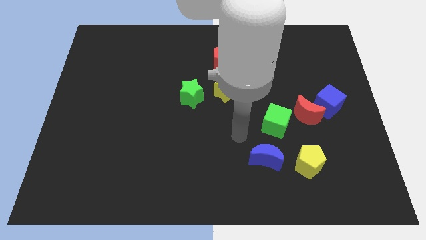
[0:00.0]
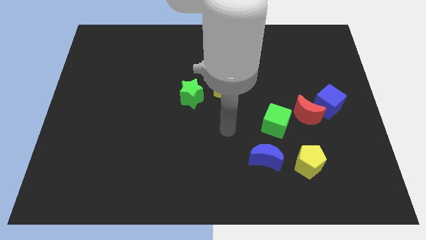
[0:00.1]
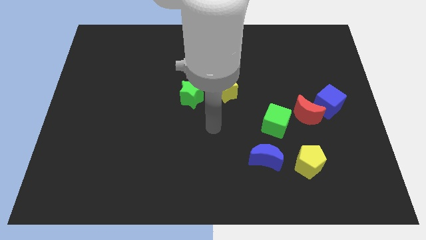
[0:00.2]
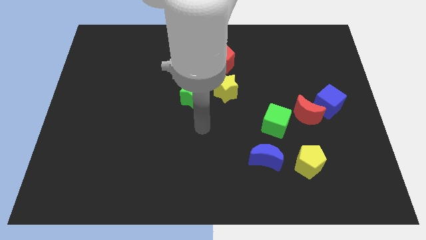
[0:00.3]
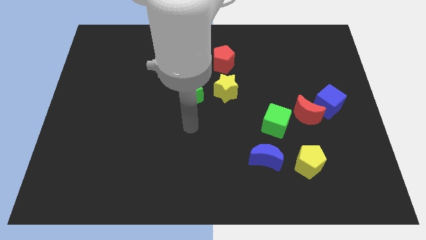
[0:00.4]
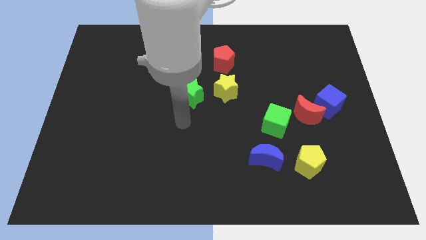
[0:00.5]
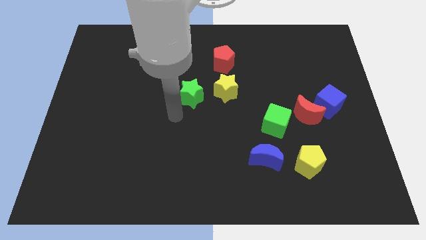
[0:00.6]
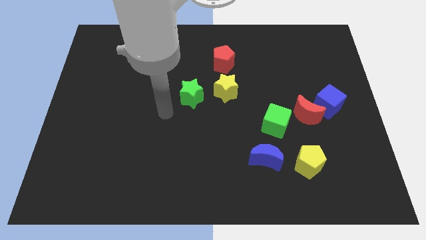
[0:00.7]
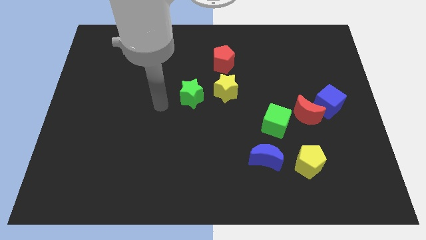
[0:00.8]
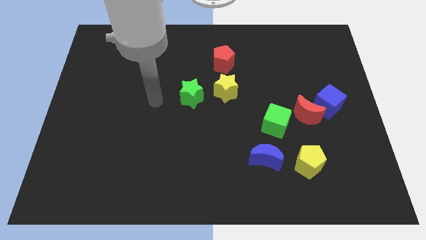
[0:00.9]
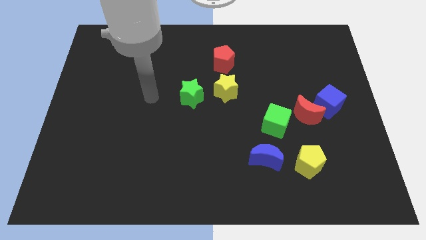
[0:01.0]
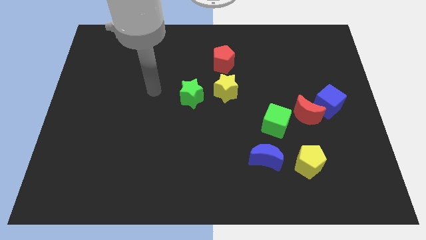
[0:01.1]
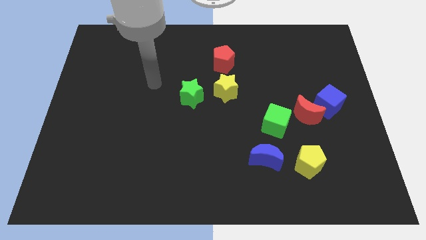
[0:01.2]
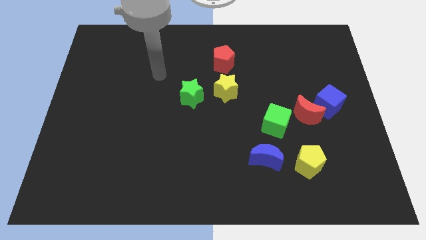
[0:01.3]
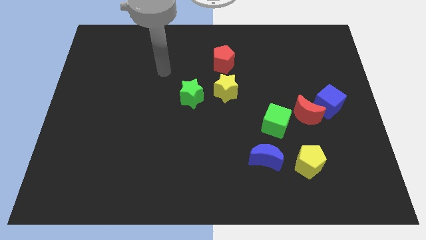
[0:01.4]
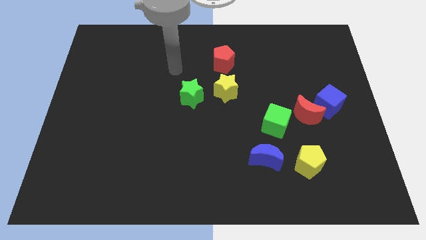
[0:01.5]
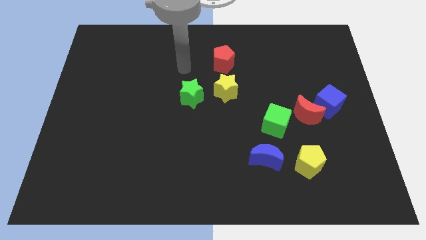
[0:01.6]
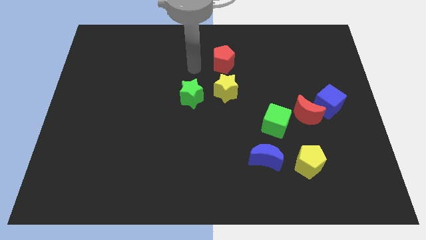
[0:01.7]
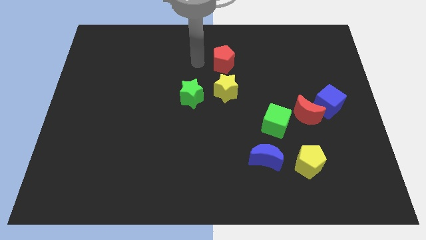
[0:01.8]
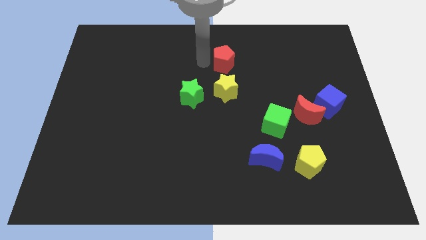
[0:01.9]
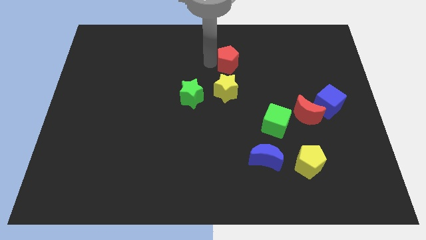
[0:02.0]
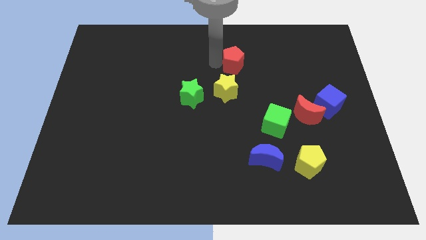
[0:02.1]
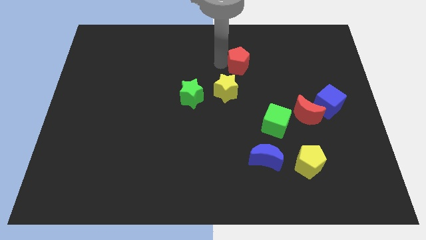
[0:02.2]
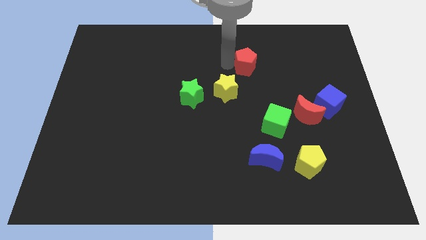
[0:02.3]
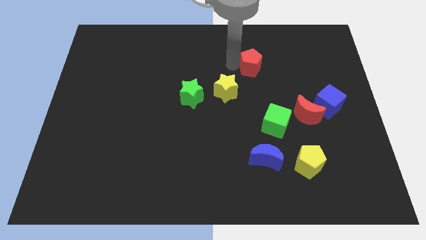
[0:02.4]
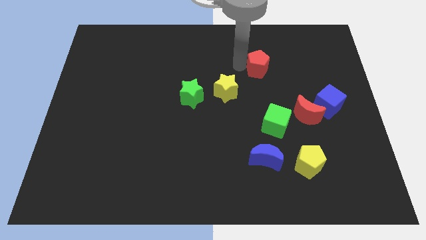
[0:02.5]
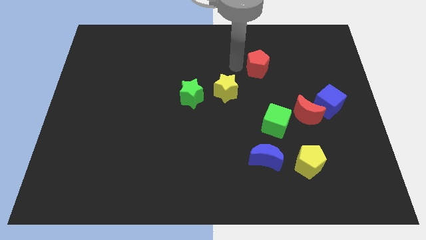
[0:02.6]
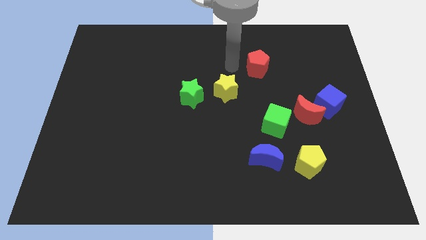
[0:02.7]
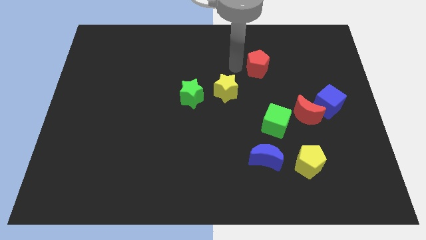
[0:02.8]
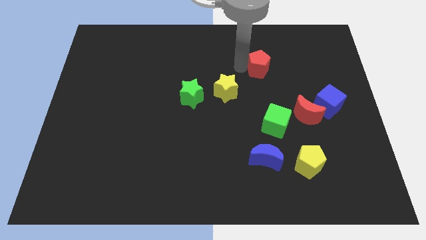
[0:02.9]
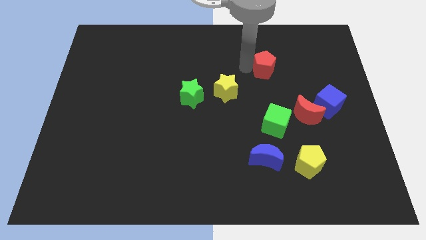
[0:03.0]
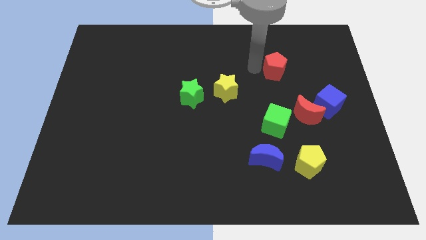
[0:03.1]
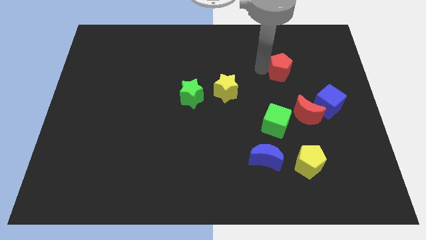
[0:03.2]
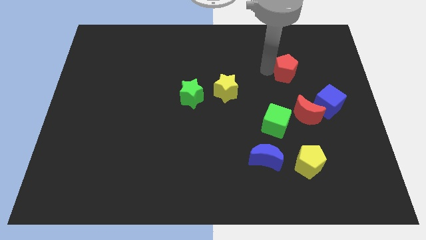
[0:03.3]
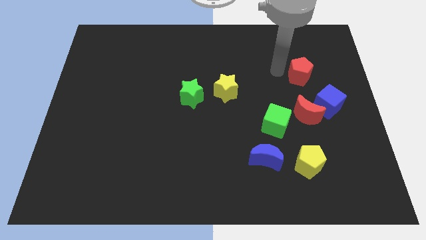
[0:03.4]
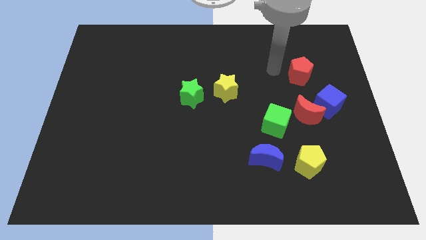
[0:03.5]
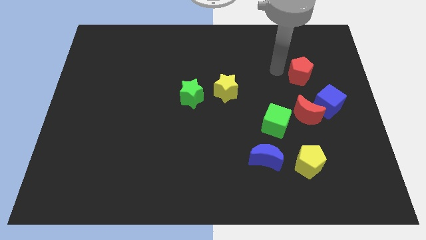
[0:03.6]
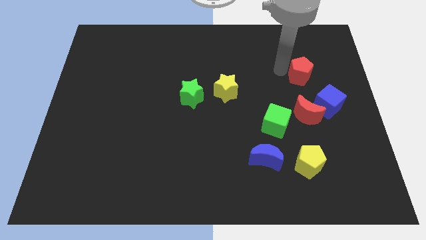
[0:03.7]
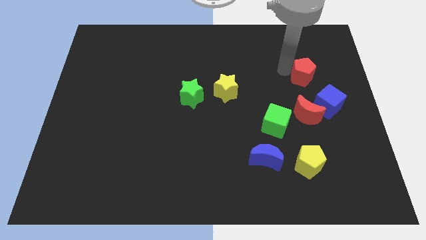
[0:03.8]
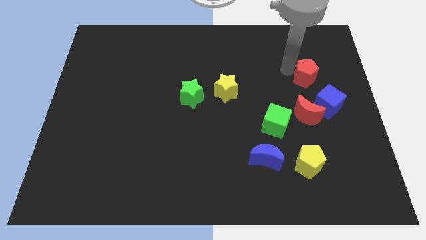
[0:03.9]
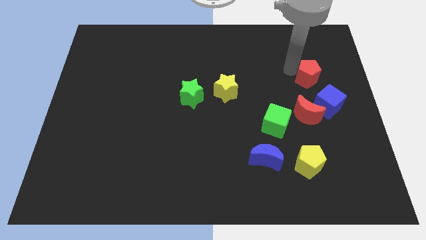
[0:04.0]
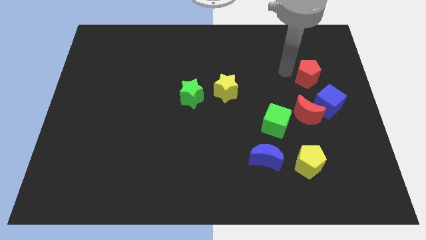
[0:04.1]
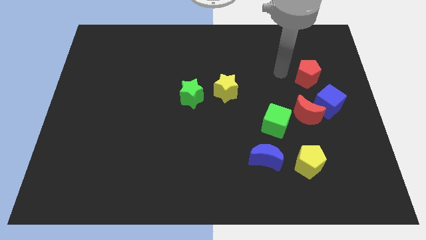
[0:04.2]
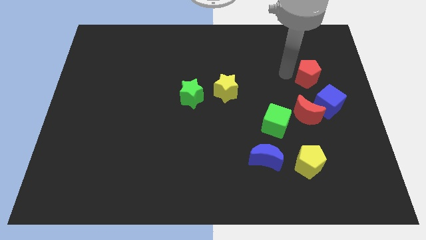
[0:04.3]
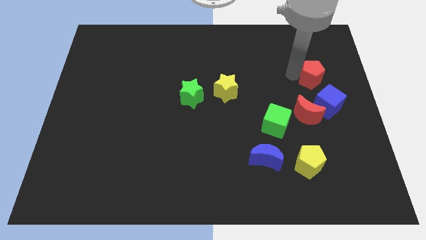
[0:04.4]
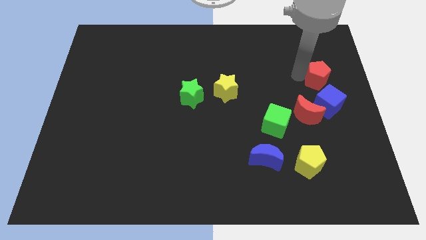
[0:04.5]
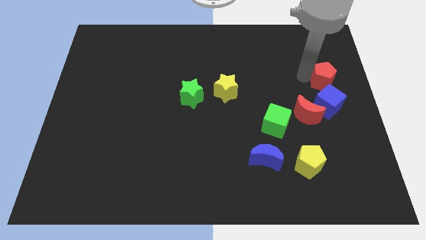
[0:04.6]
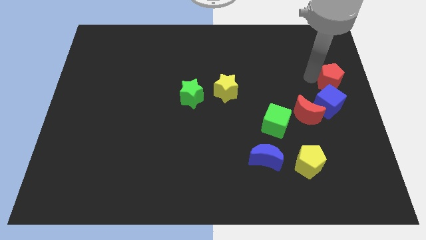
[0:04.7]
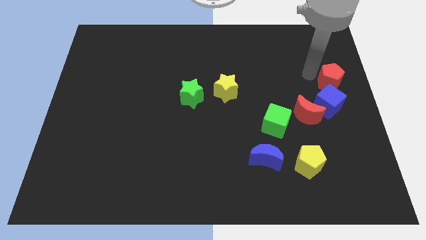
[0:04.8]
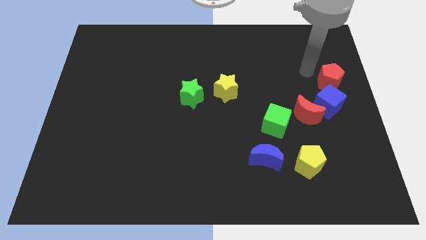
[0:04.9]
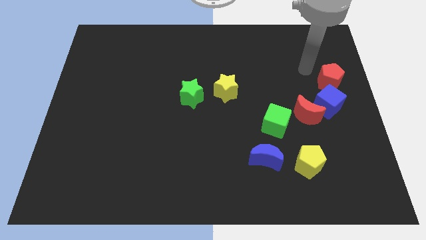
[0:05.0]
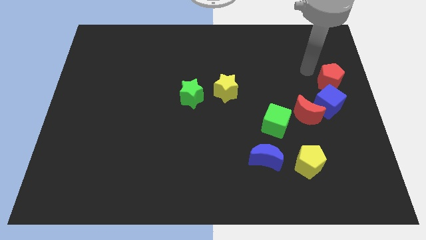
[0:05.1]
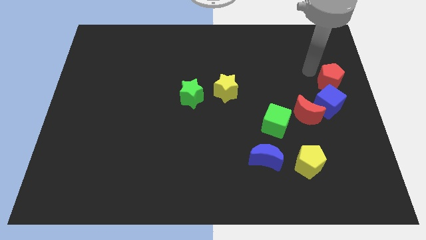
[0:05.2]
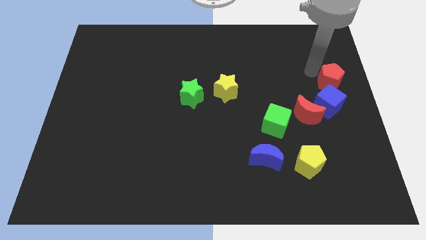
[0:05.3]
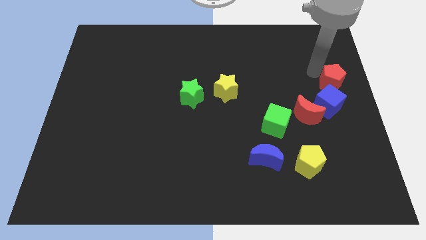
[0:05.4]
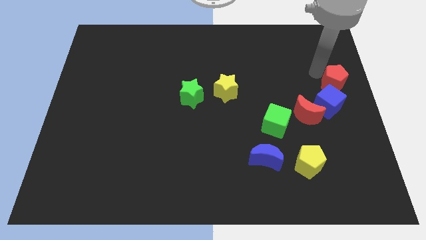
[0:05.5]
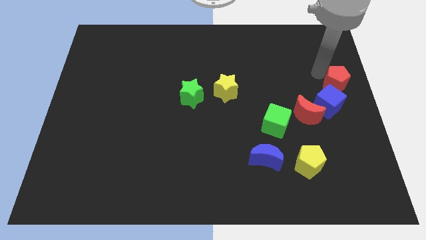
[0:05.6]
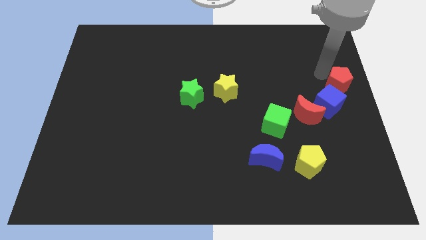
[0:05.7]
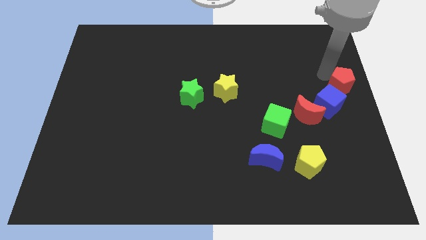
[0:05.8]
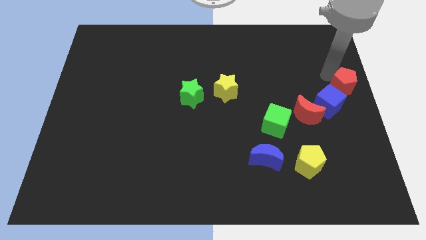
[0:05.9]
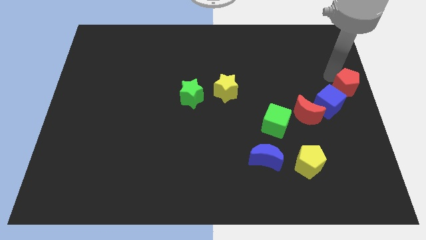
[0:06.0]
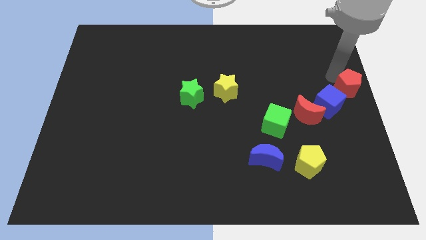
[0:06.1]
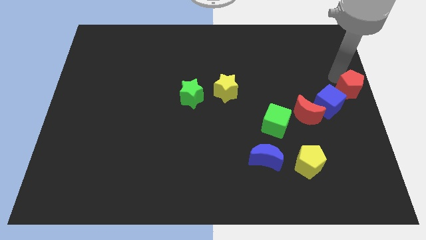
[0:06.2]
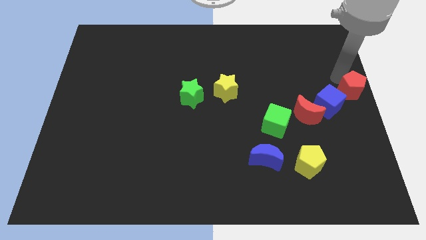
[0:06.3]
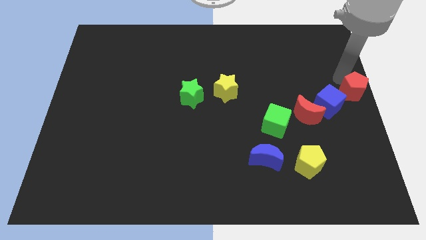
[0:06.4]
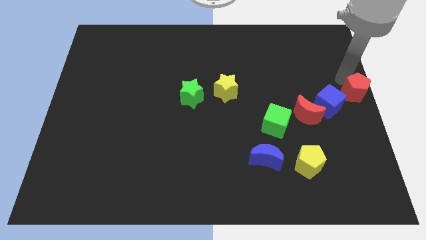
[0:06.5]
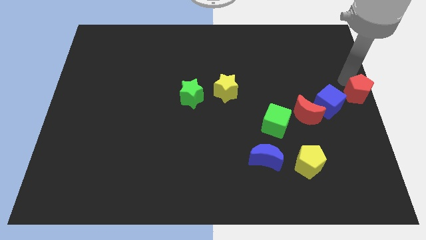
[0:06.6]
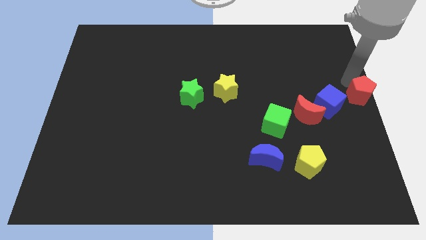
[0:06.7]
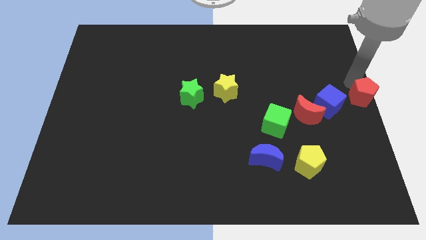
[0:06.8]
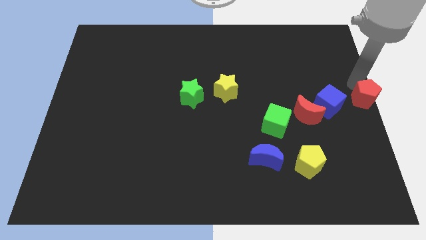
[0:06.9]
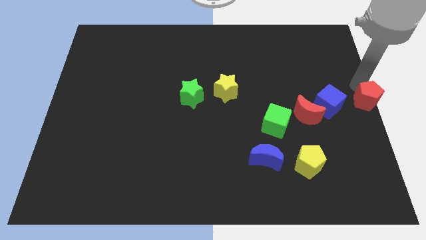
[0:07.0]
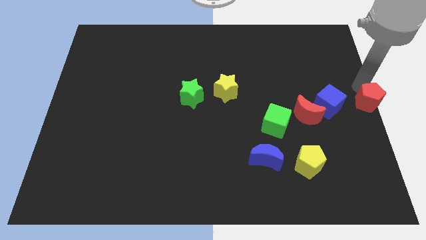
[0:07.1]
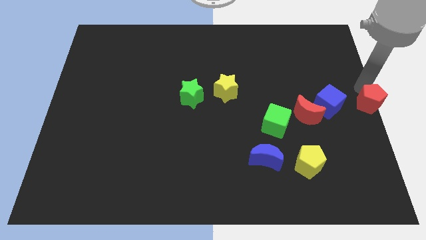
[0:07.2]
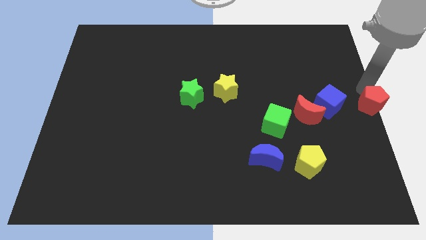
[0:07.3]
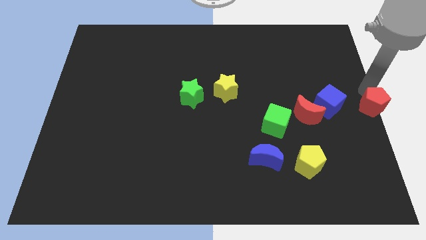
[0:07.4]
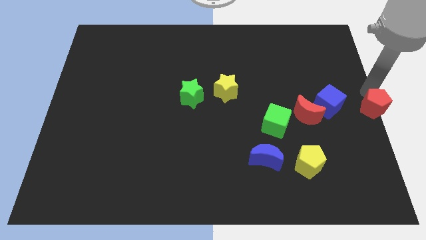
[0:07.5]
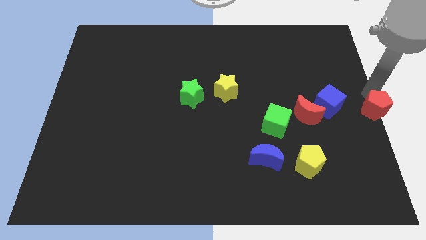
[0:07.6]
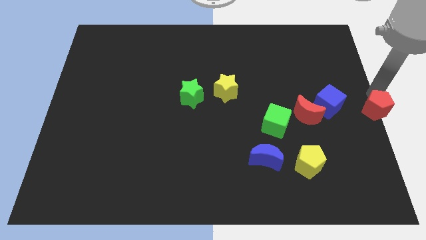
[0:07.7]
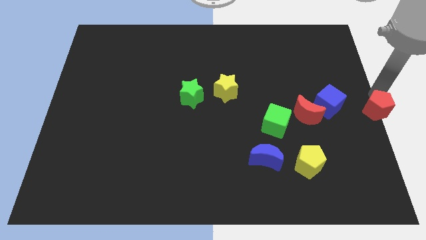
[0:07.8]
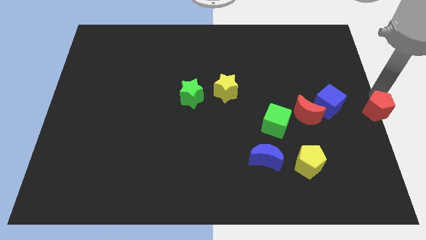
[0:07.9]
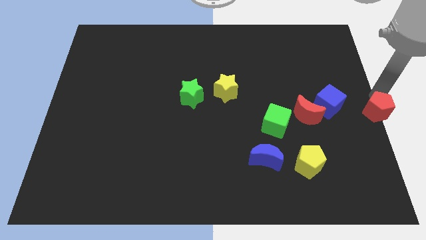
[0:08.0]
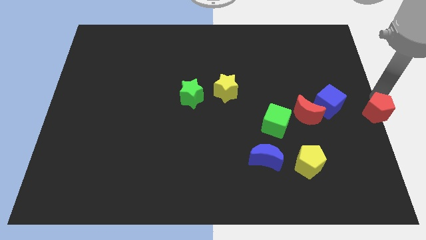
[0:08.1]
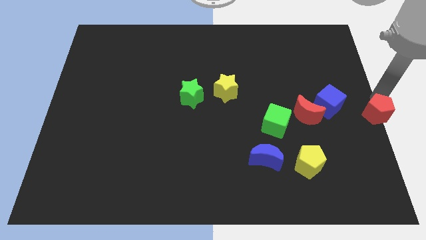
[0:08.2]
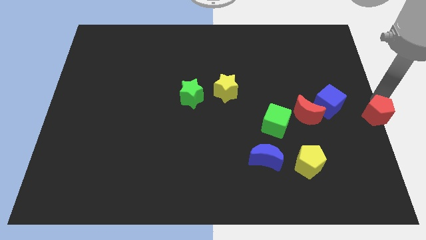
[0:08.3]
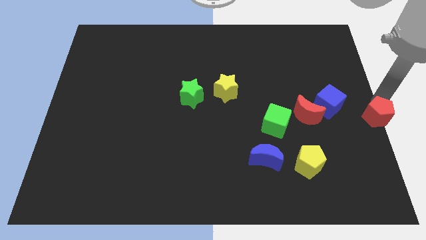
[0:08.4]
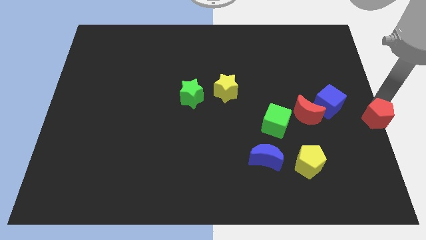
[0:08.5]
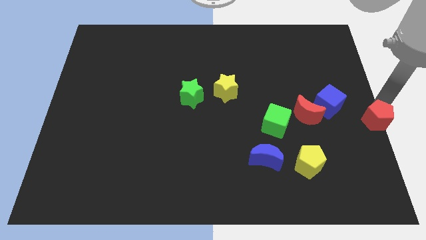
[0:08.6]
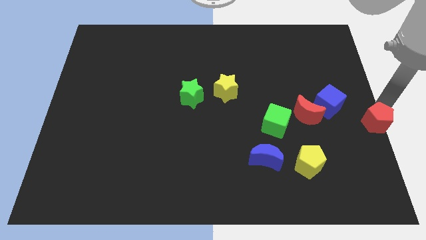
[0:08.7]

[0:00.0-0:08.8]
move the red pentagon diagonally downwards and right
